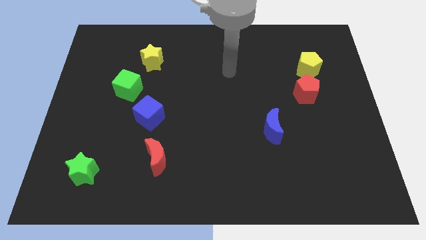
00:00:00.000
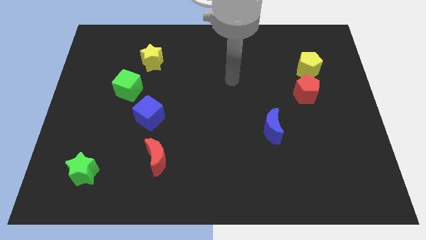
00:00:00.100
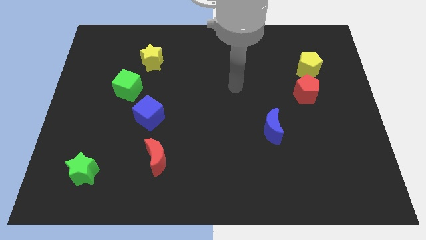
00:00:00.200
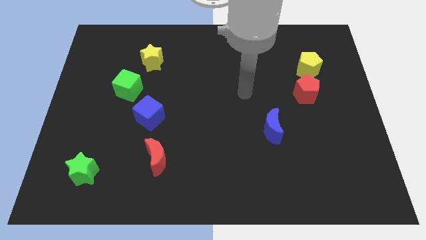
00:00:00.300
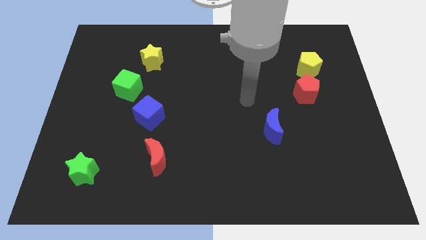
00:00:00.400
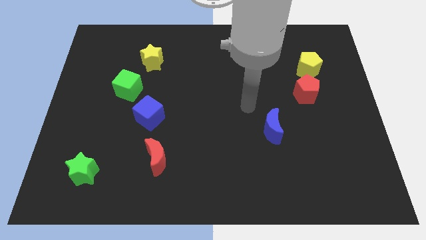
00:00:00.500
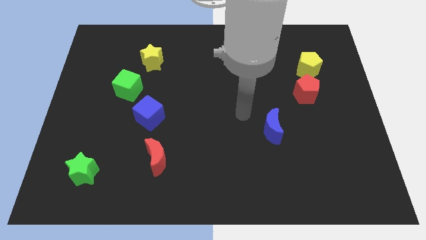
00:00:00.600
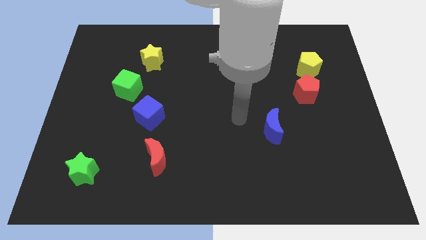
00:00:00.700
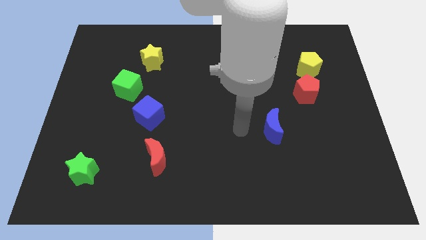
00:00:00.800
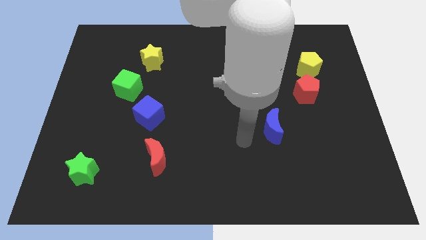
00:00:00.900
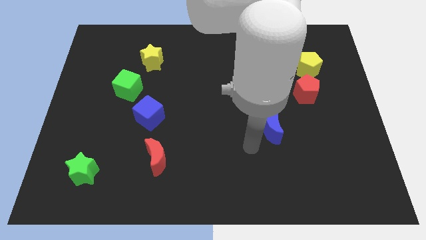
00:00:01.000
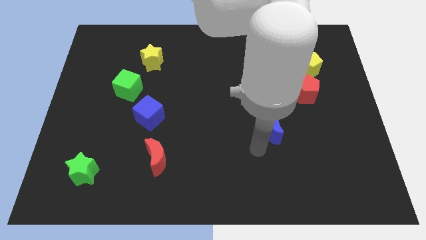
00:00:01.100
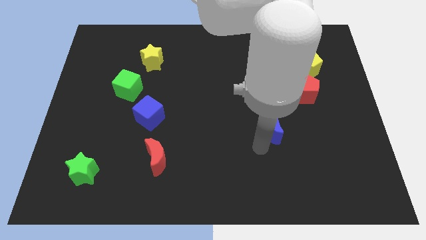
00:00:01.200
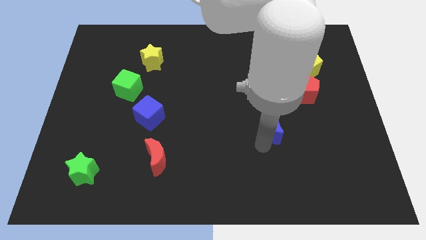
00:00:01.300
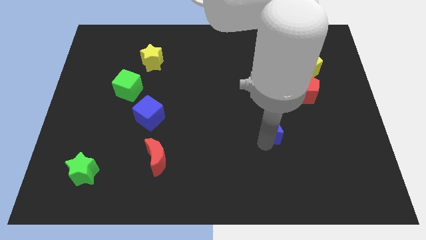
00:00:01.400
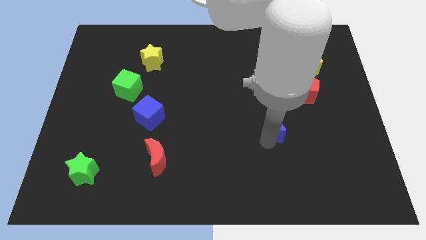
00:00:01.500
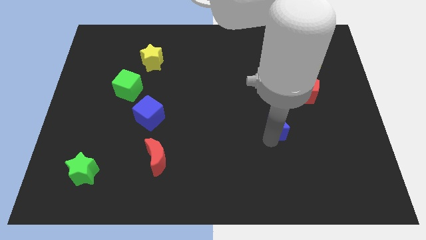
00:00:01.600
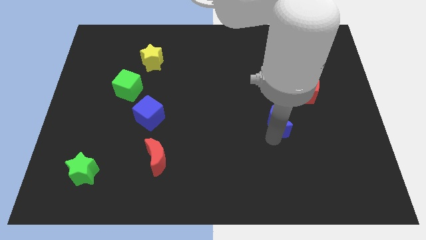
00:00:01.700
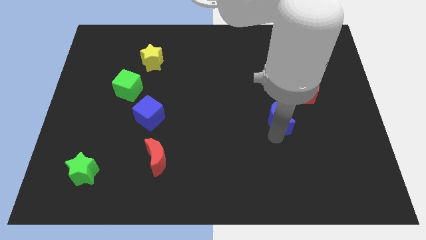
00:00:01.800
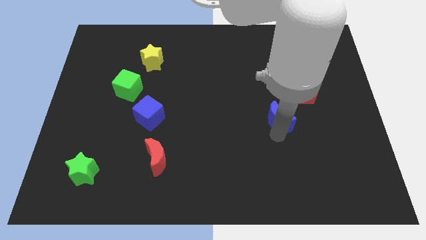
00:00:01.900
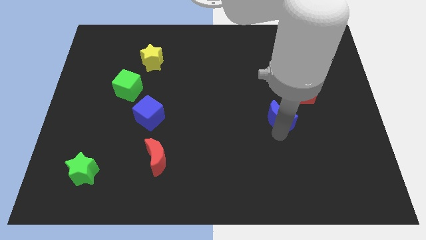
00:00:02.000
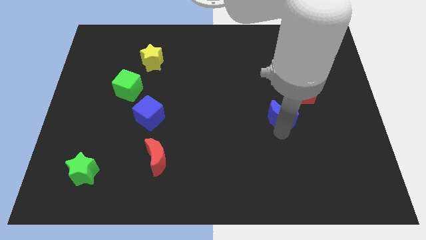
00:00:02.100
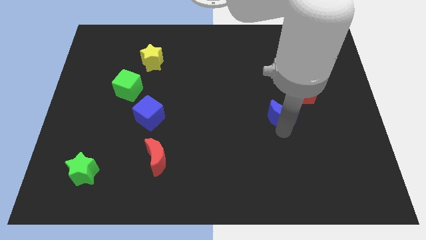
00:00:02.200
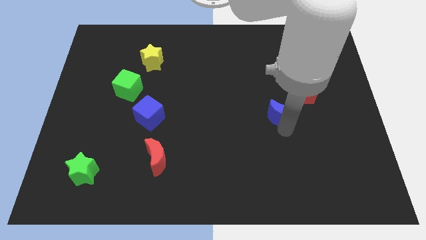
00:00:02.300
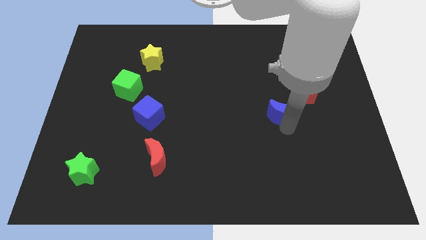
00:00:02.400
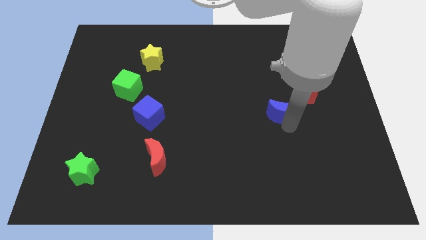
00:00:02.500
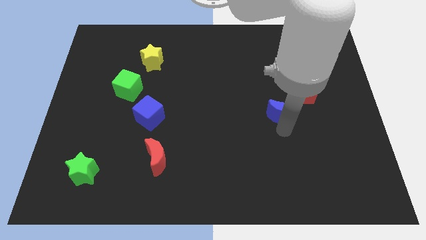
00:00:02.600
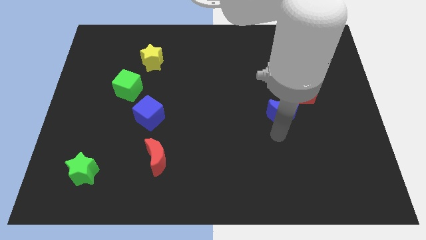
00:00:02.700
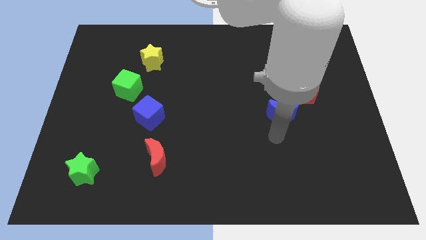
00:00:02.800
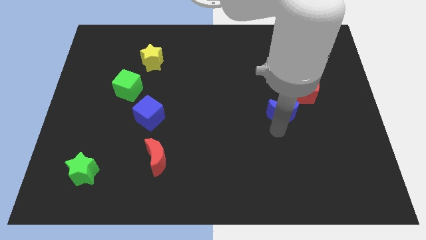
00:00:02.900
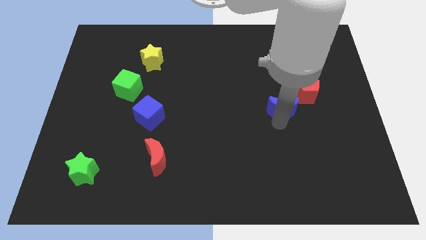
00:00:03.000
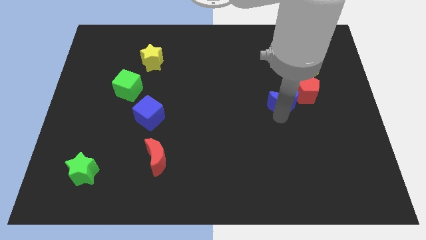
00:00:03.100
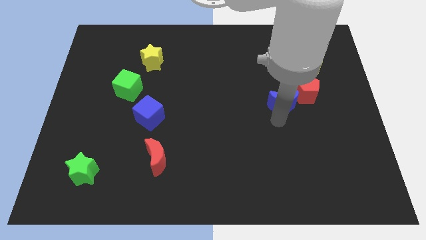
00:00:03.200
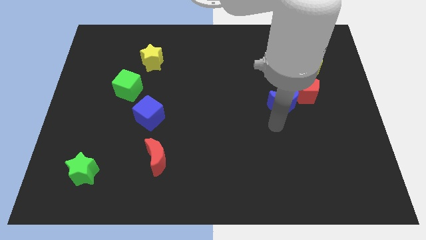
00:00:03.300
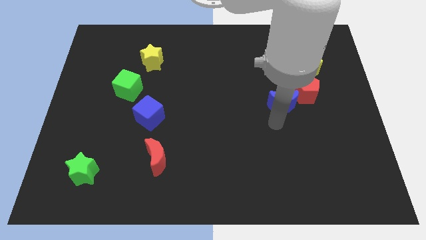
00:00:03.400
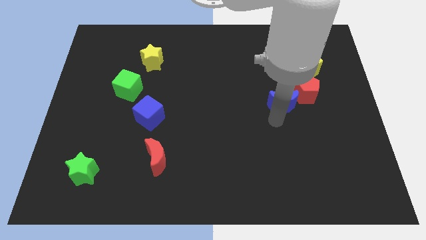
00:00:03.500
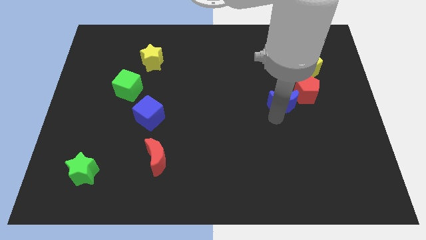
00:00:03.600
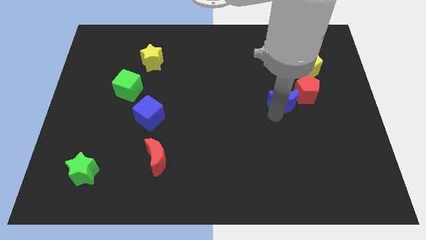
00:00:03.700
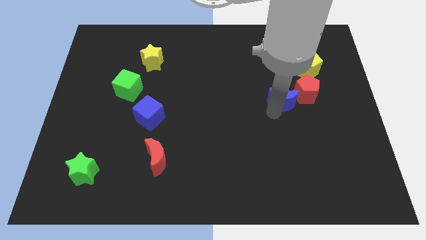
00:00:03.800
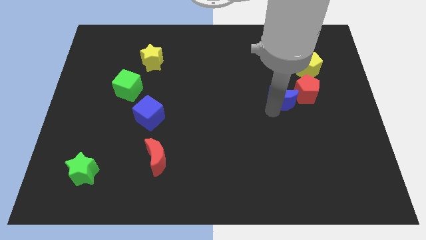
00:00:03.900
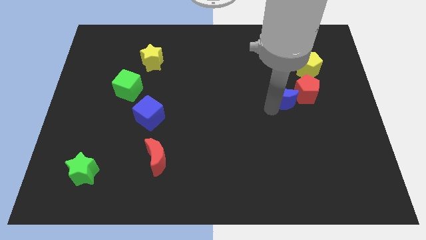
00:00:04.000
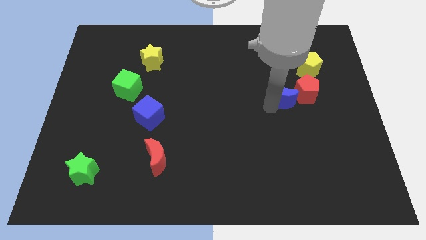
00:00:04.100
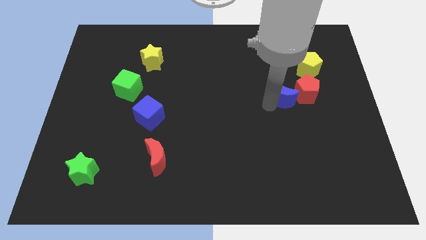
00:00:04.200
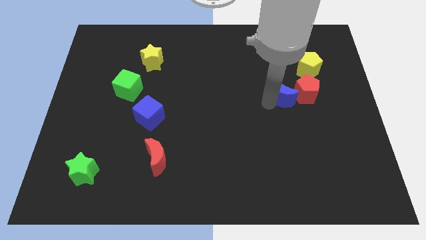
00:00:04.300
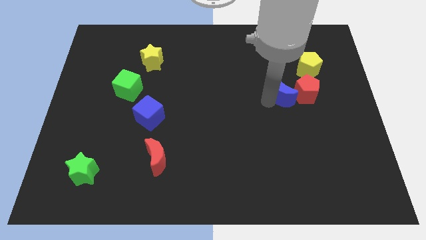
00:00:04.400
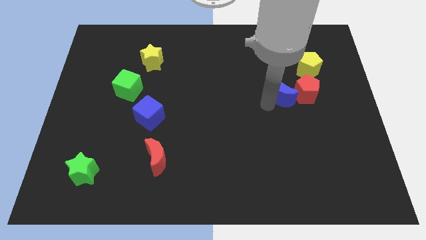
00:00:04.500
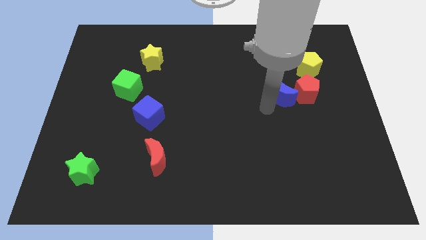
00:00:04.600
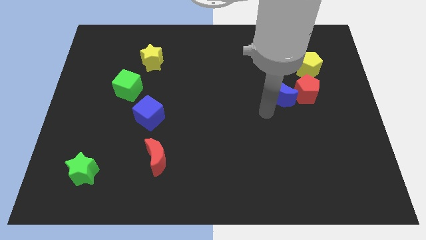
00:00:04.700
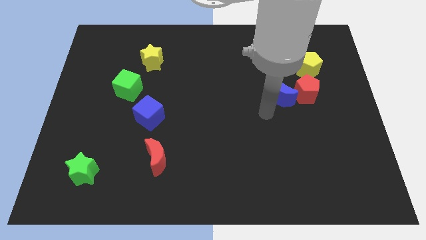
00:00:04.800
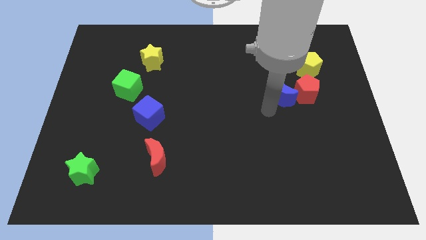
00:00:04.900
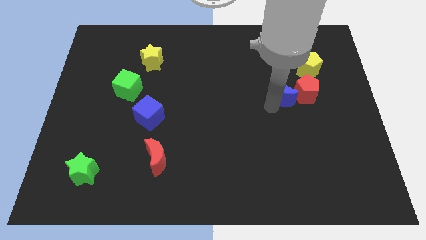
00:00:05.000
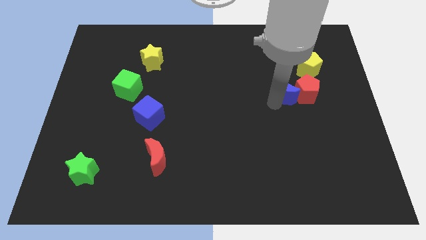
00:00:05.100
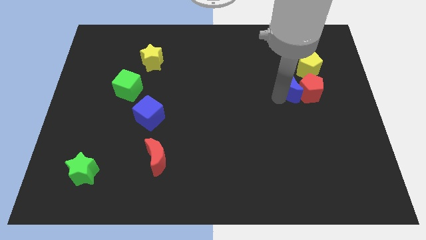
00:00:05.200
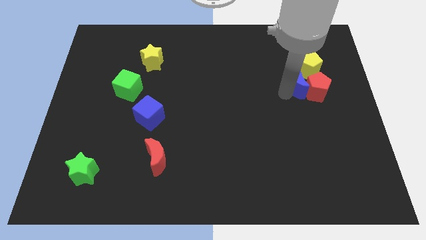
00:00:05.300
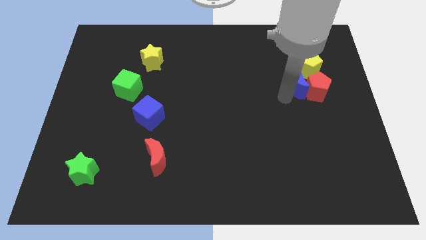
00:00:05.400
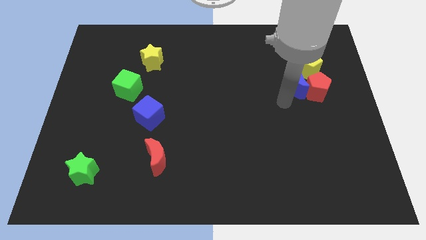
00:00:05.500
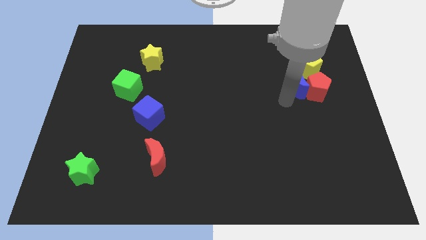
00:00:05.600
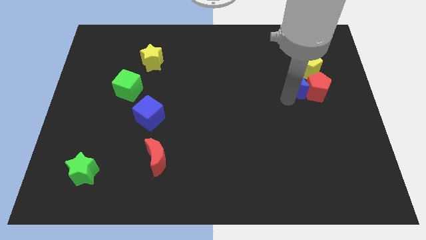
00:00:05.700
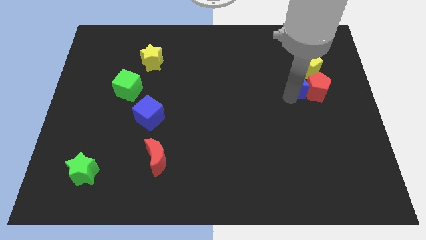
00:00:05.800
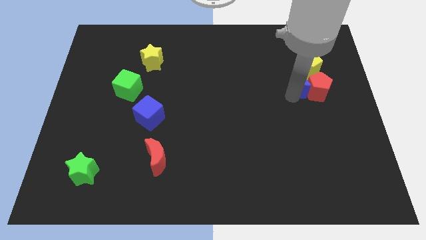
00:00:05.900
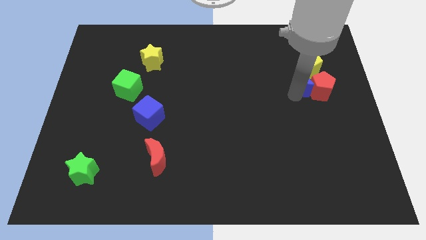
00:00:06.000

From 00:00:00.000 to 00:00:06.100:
slide the blue moon to the yellow pentagon

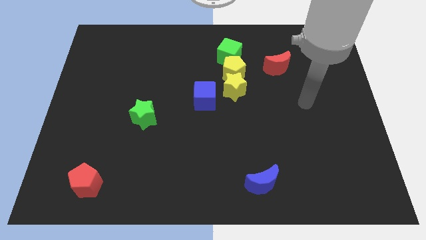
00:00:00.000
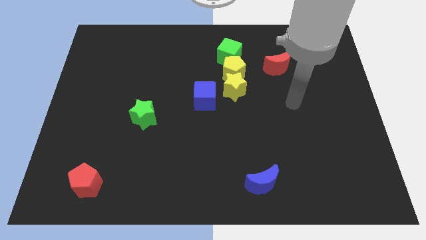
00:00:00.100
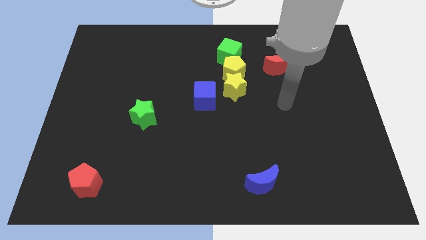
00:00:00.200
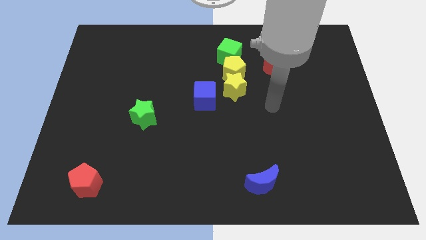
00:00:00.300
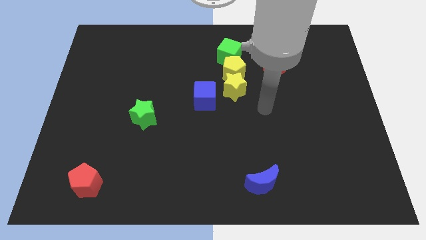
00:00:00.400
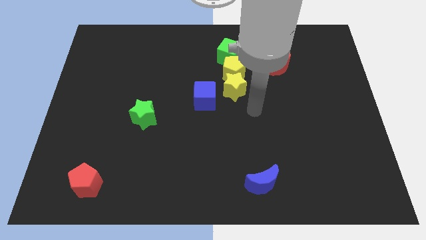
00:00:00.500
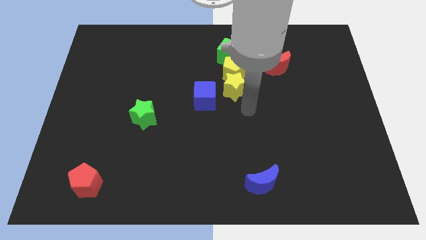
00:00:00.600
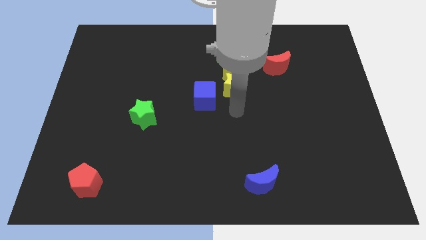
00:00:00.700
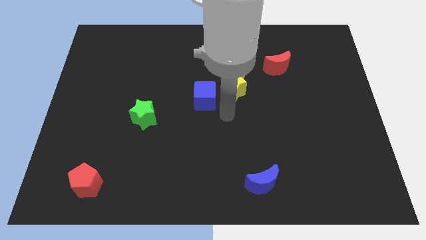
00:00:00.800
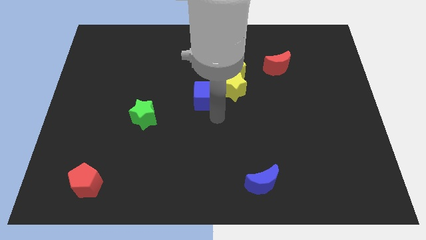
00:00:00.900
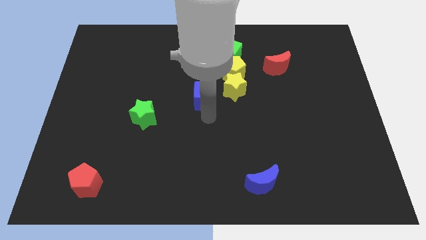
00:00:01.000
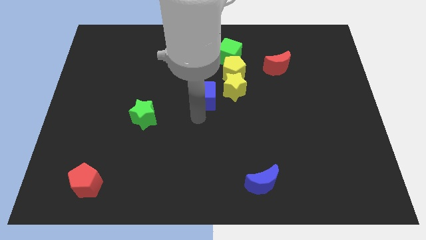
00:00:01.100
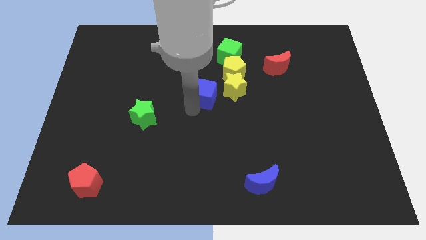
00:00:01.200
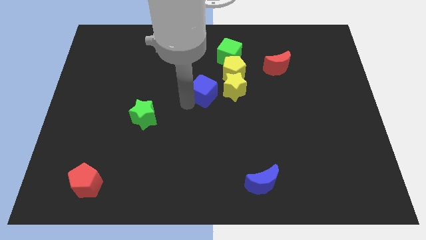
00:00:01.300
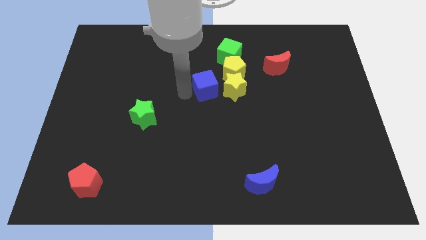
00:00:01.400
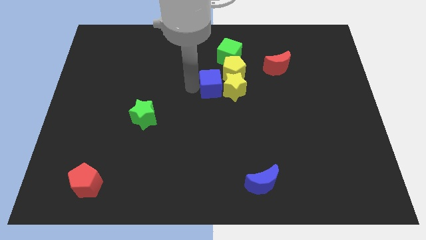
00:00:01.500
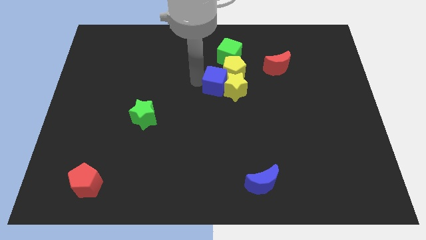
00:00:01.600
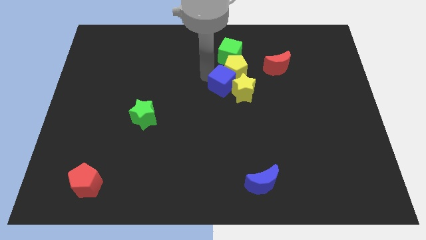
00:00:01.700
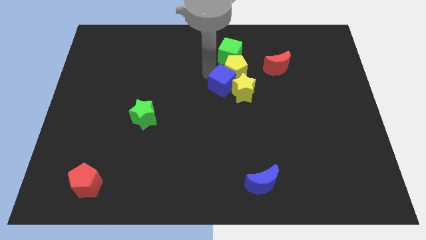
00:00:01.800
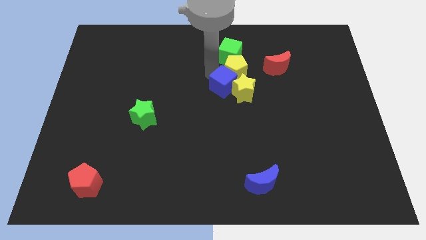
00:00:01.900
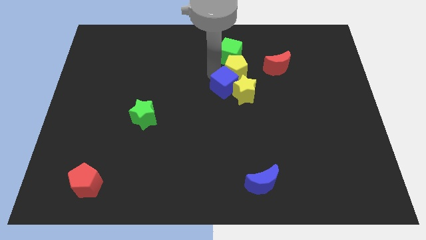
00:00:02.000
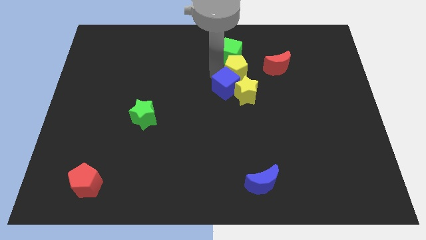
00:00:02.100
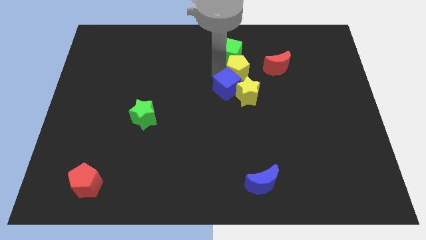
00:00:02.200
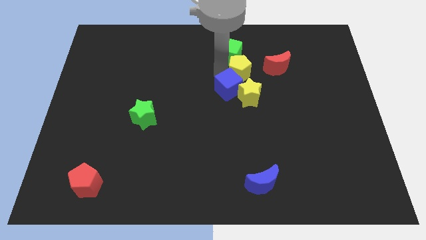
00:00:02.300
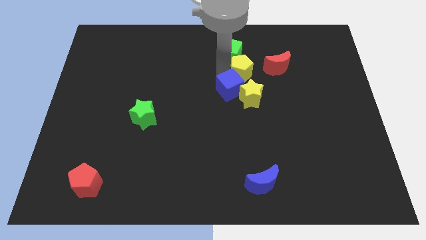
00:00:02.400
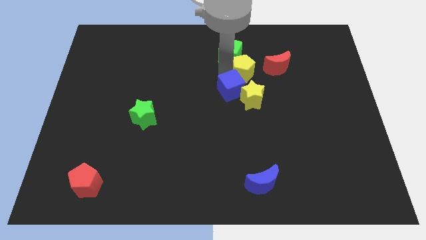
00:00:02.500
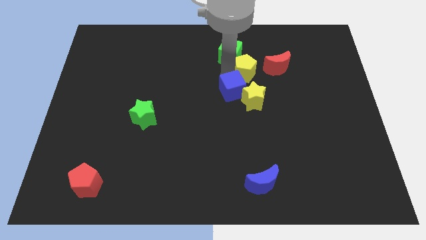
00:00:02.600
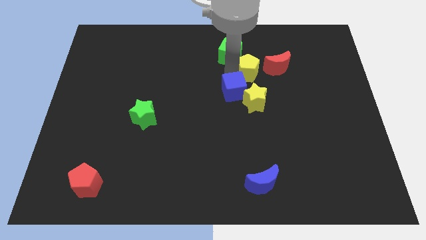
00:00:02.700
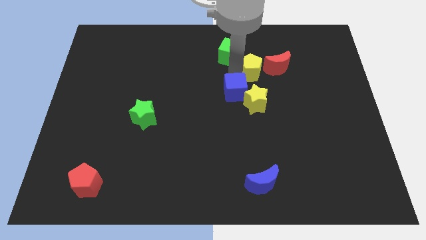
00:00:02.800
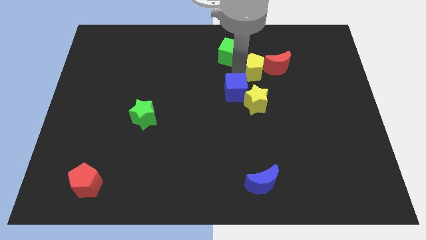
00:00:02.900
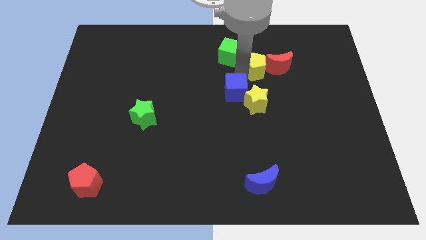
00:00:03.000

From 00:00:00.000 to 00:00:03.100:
push the yellow pentagon next to the red moon
